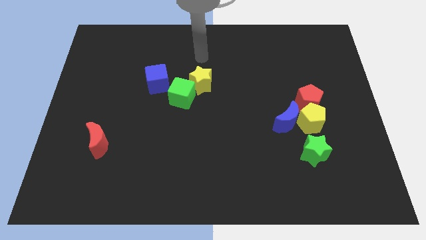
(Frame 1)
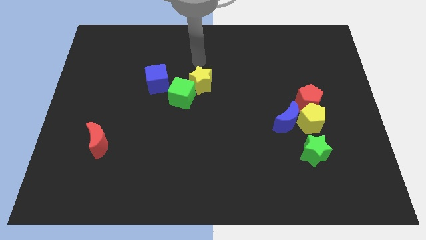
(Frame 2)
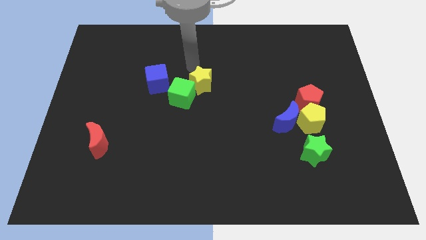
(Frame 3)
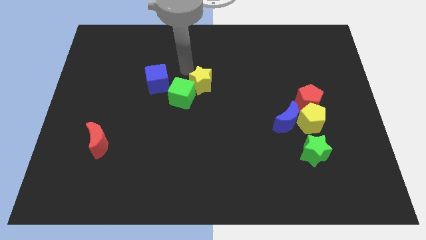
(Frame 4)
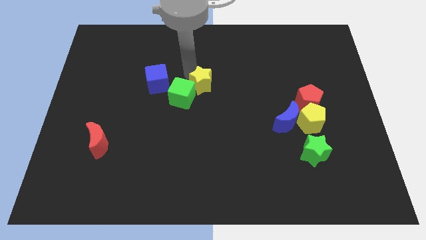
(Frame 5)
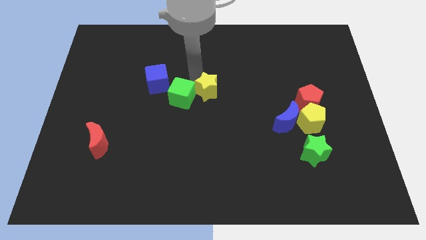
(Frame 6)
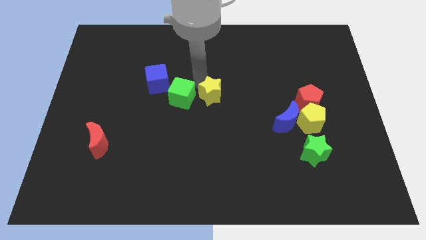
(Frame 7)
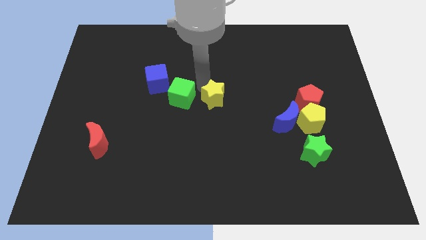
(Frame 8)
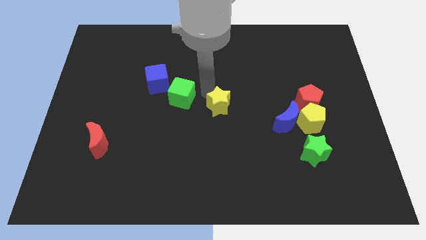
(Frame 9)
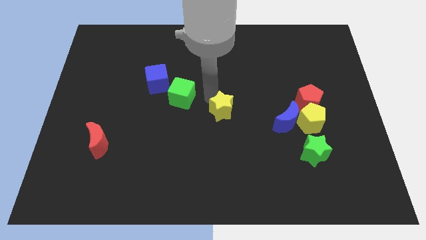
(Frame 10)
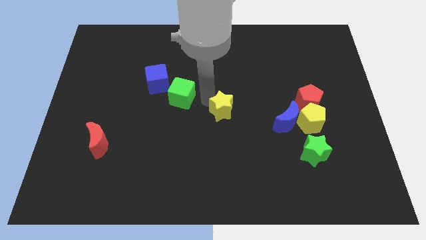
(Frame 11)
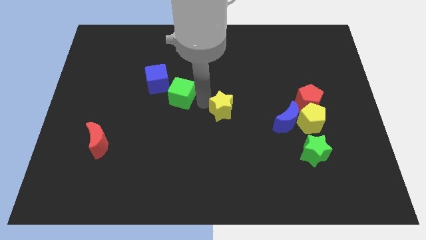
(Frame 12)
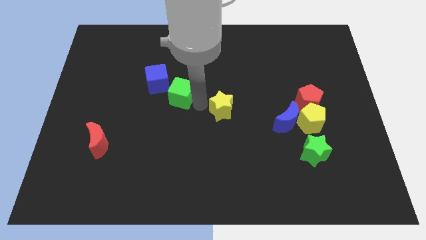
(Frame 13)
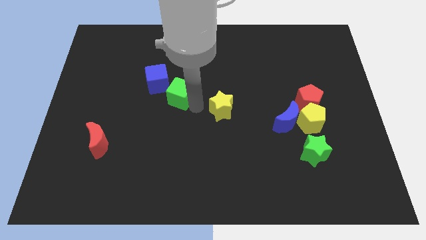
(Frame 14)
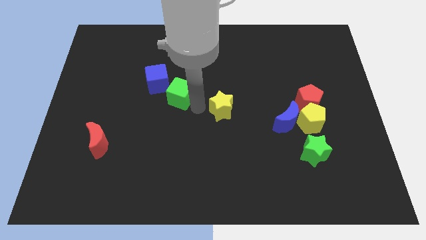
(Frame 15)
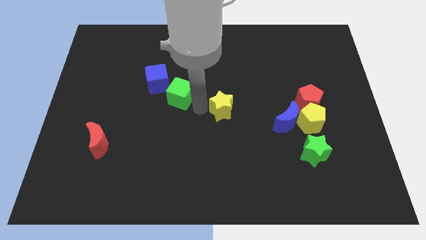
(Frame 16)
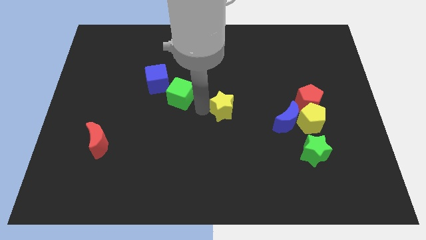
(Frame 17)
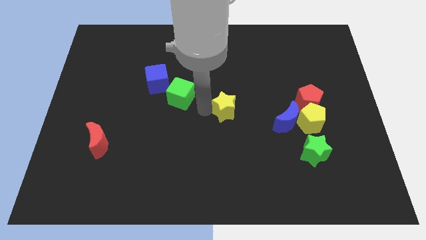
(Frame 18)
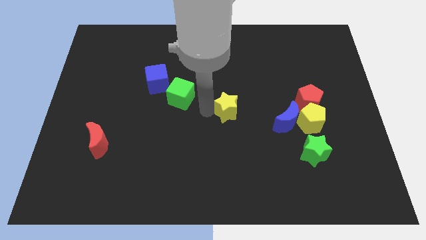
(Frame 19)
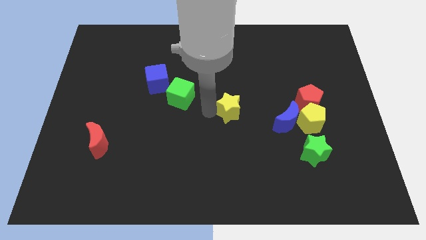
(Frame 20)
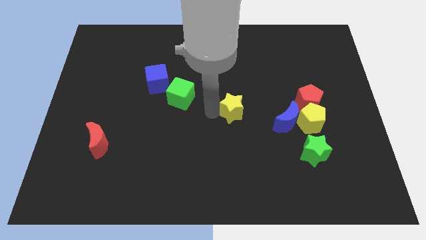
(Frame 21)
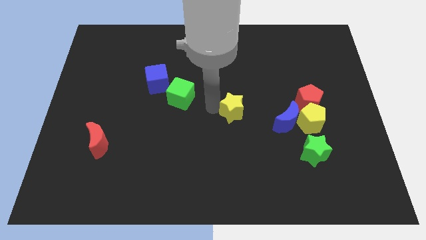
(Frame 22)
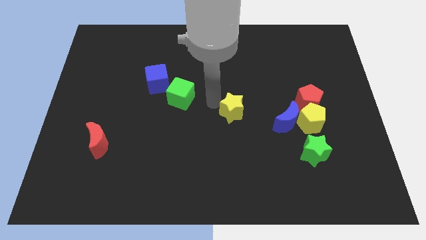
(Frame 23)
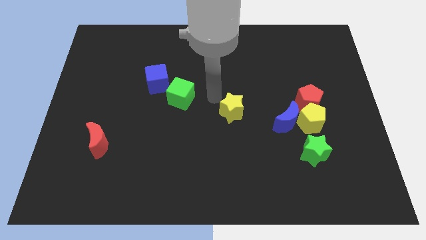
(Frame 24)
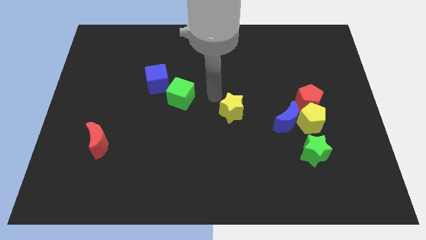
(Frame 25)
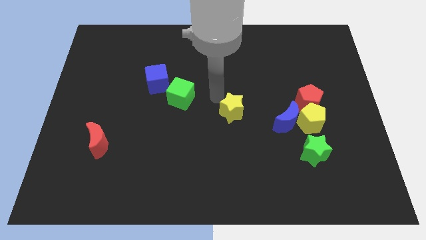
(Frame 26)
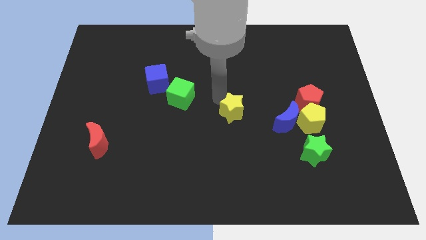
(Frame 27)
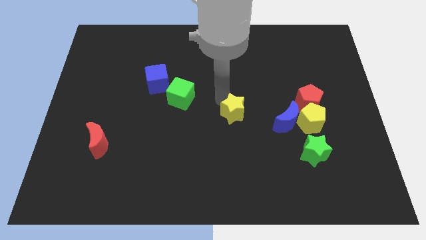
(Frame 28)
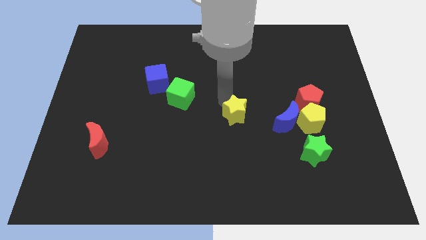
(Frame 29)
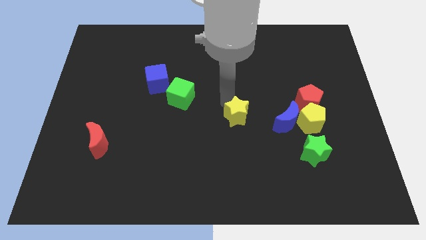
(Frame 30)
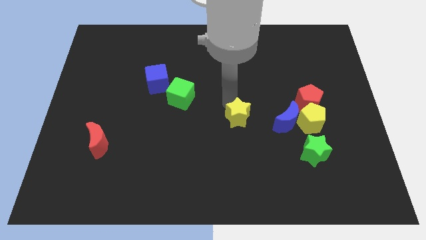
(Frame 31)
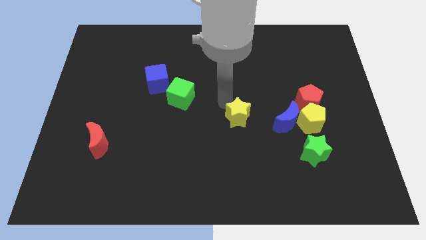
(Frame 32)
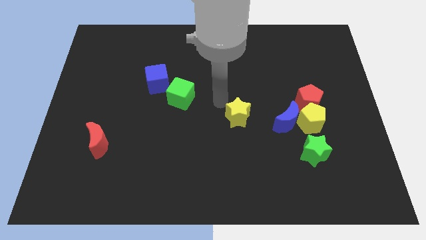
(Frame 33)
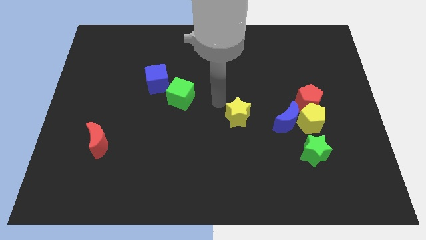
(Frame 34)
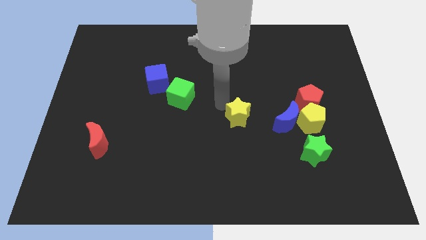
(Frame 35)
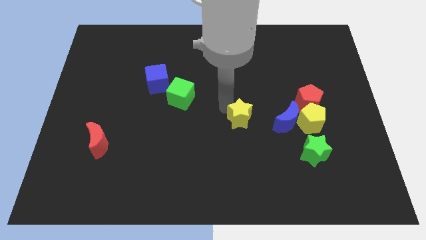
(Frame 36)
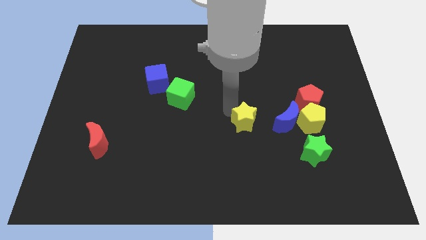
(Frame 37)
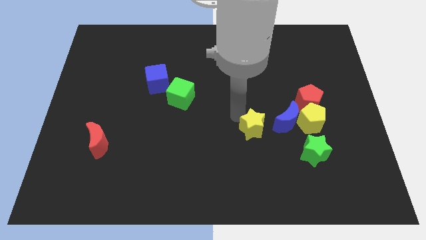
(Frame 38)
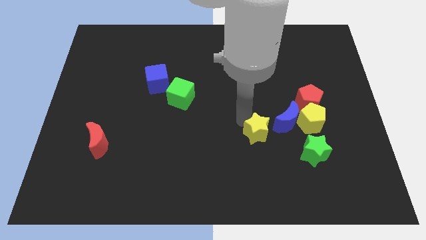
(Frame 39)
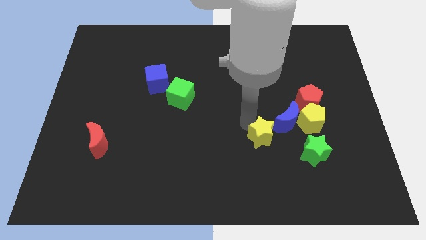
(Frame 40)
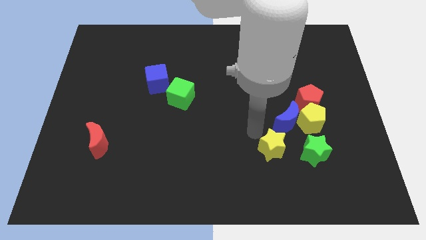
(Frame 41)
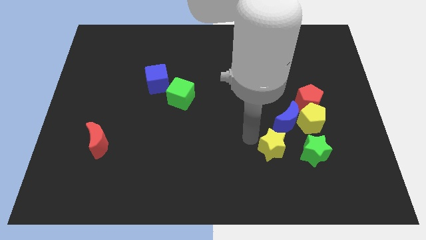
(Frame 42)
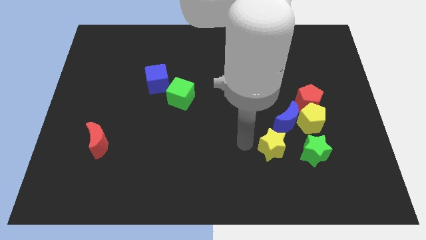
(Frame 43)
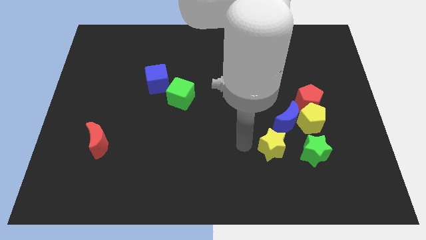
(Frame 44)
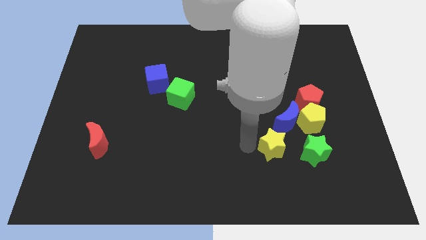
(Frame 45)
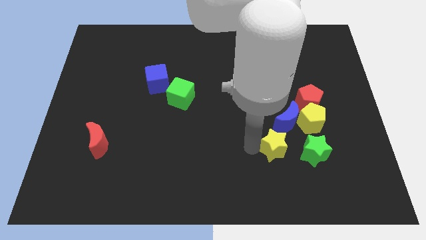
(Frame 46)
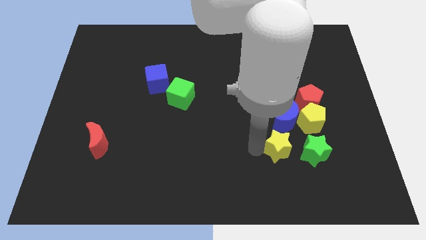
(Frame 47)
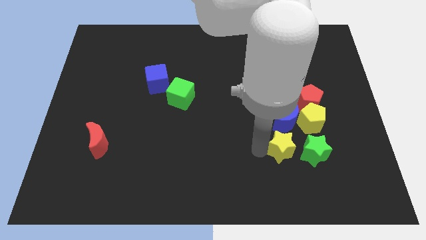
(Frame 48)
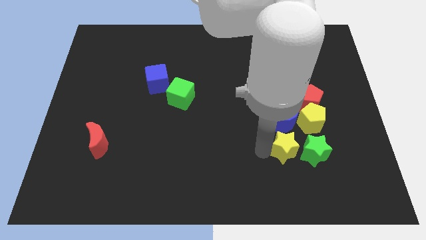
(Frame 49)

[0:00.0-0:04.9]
slide the yellow star next to the green star

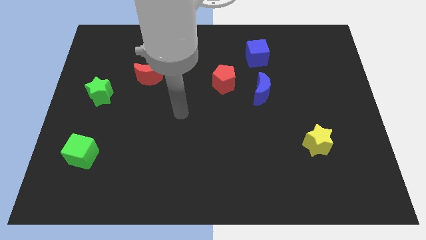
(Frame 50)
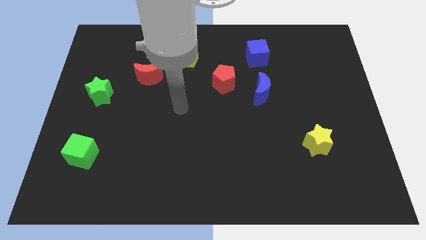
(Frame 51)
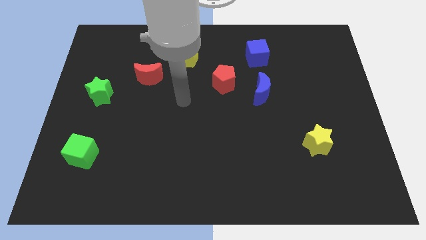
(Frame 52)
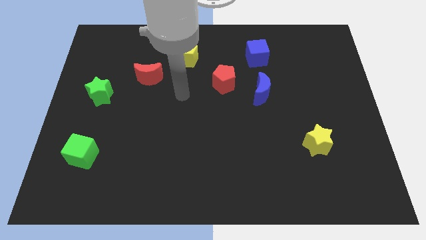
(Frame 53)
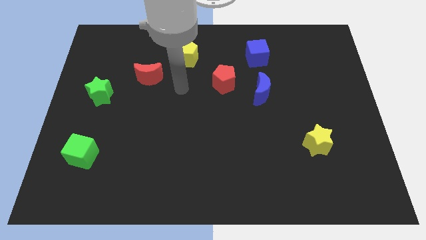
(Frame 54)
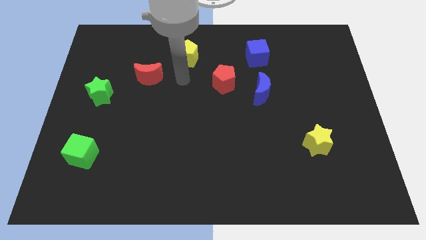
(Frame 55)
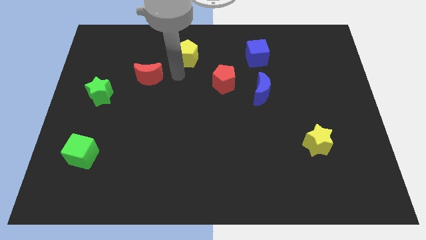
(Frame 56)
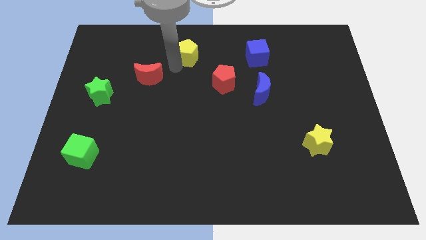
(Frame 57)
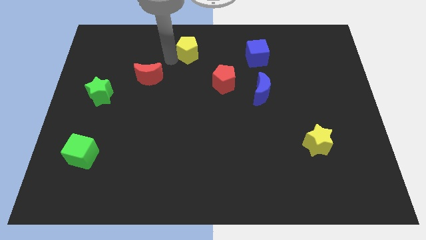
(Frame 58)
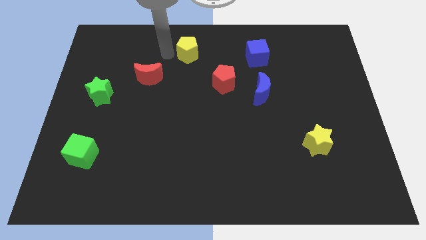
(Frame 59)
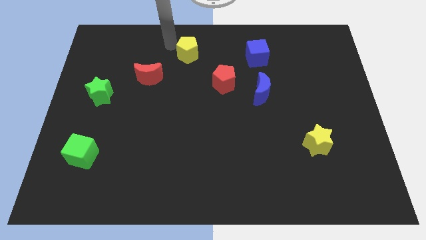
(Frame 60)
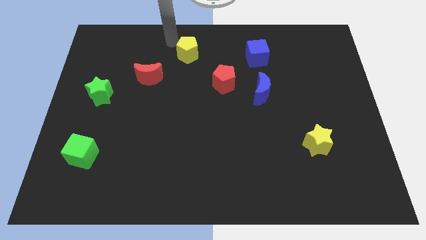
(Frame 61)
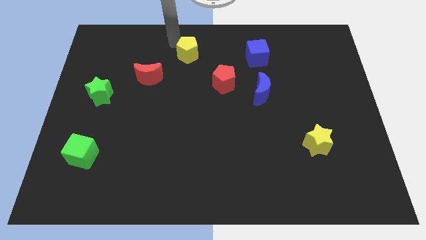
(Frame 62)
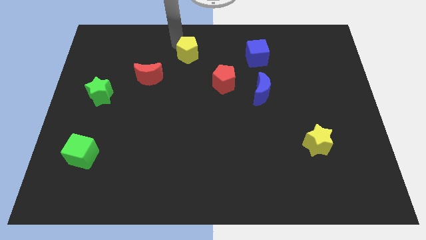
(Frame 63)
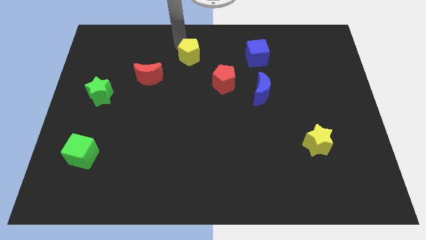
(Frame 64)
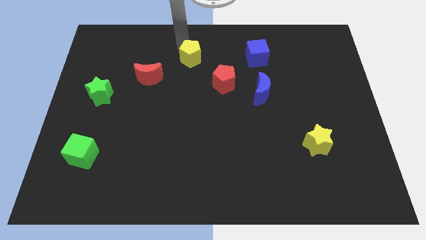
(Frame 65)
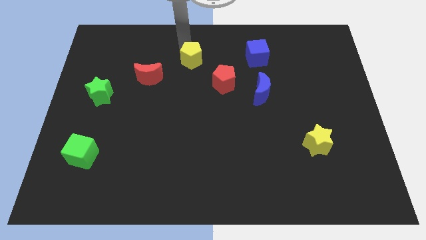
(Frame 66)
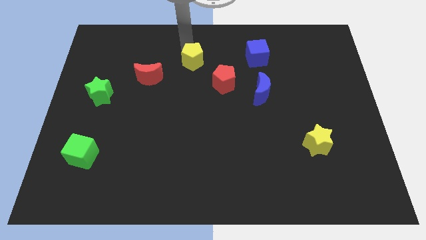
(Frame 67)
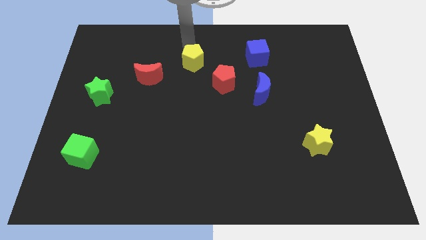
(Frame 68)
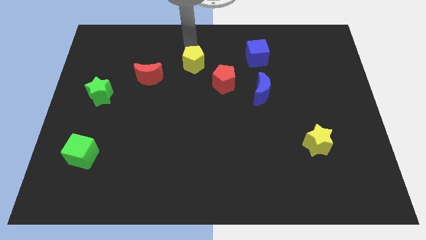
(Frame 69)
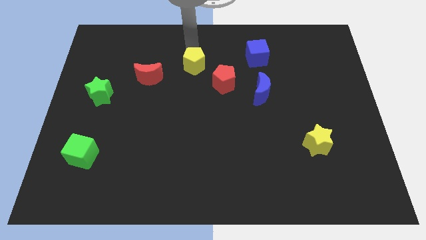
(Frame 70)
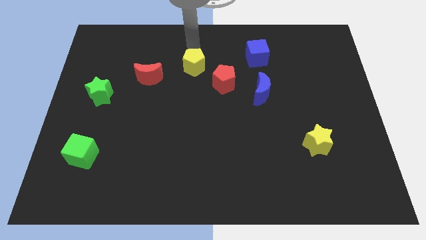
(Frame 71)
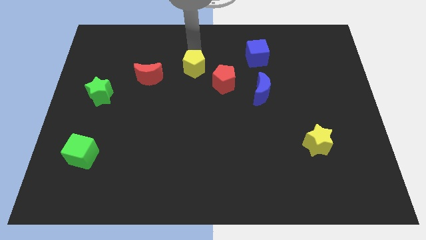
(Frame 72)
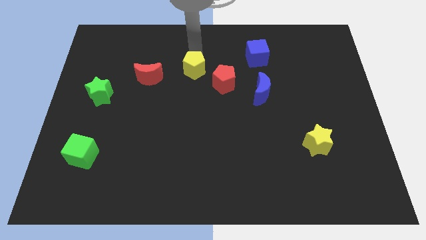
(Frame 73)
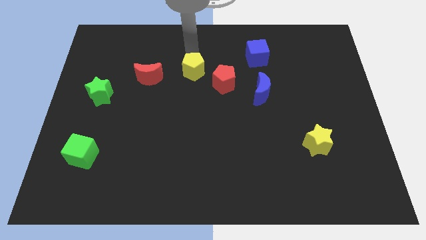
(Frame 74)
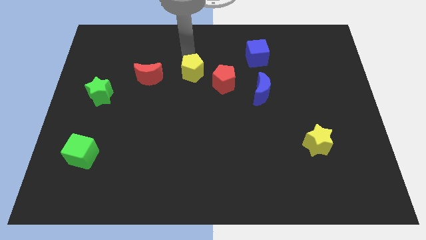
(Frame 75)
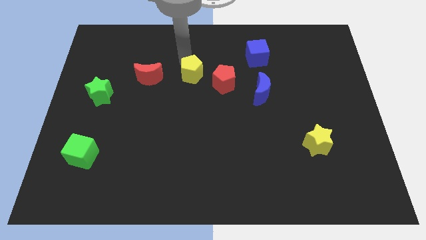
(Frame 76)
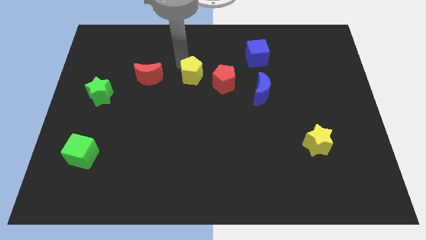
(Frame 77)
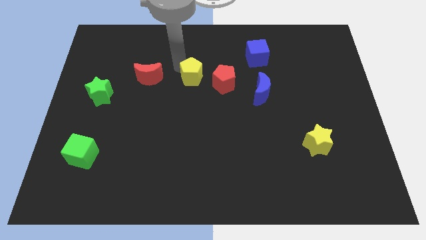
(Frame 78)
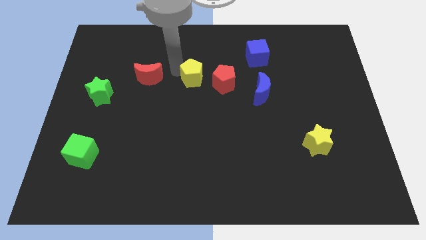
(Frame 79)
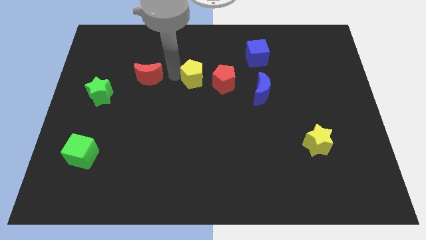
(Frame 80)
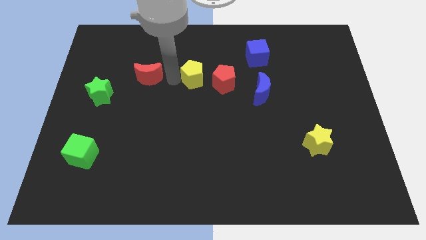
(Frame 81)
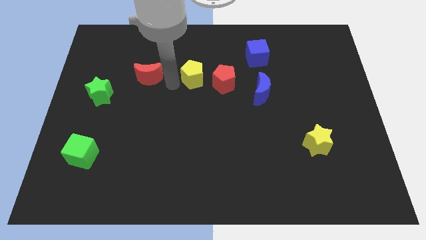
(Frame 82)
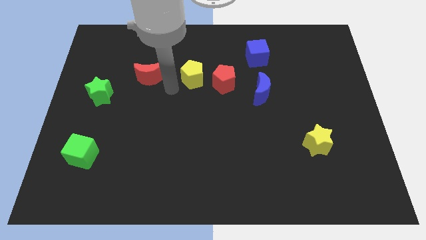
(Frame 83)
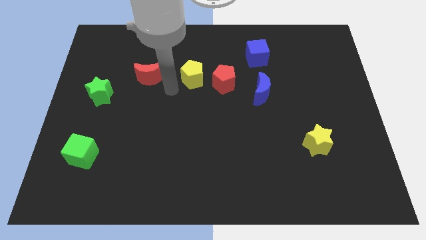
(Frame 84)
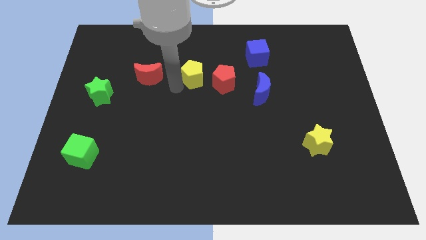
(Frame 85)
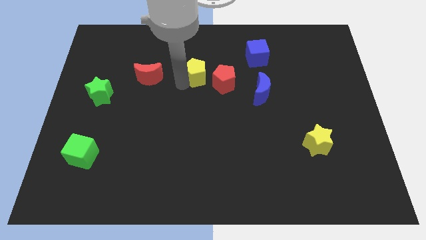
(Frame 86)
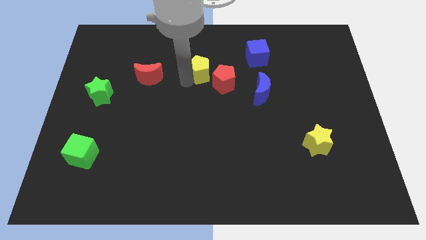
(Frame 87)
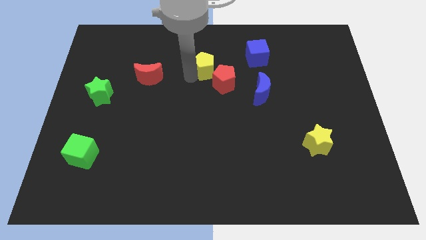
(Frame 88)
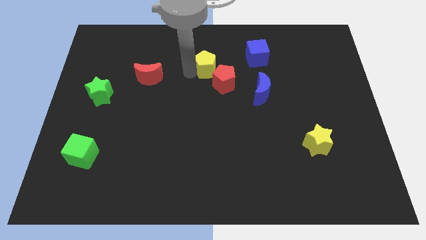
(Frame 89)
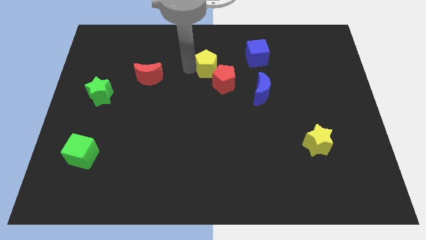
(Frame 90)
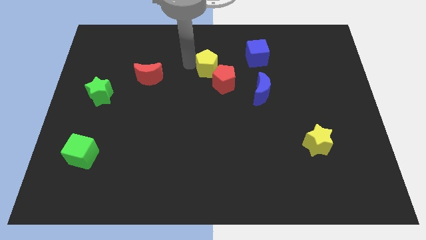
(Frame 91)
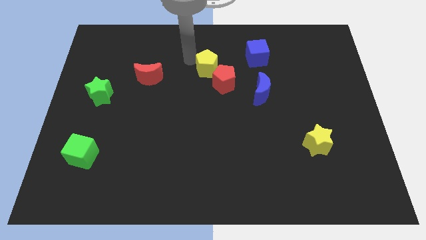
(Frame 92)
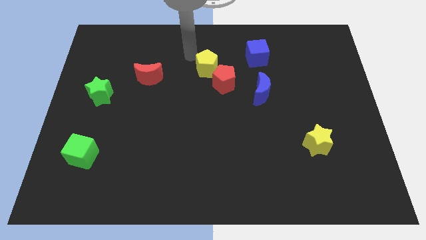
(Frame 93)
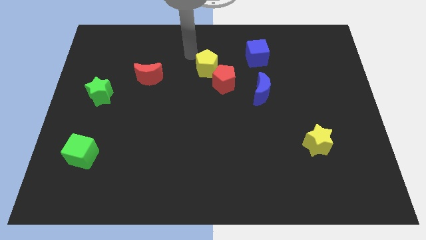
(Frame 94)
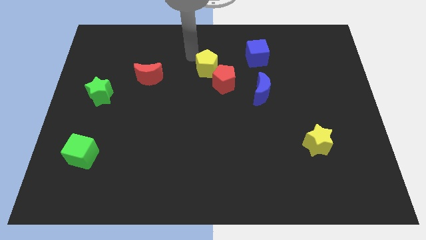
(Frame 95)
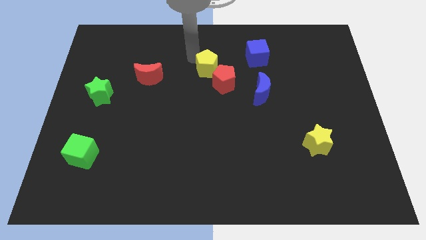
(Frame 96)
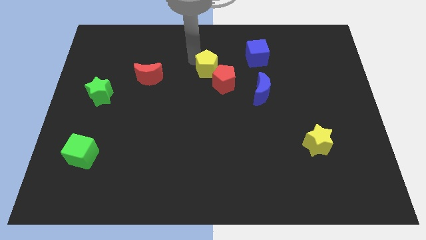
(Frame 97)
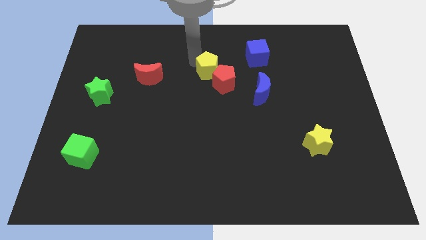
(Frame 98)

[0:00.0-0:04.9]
push the yellow pentagon close to the red pentagon
